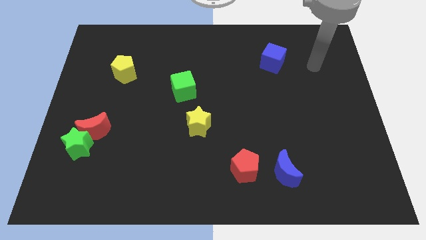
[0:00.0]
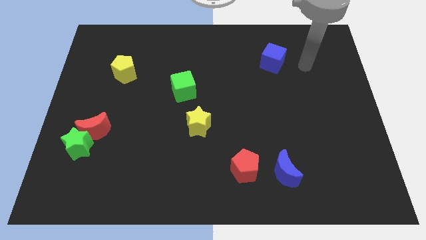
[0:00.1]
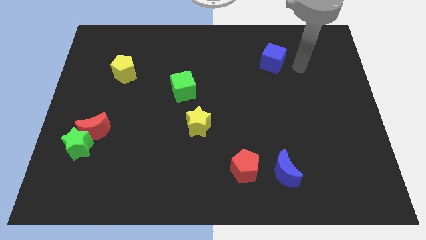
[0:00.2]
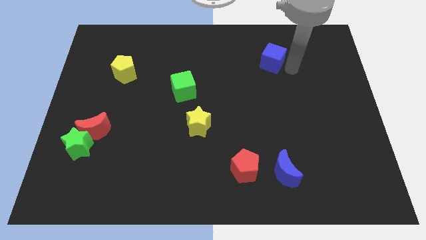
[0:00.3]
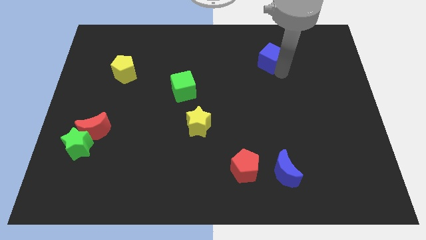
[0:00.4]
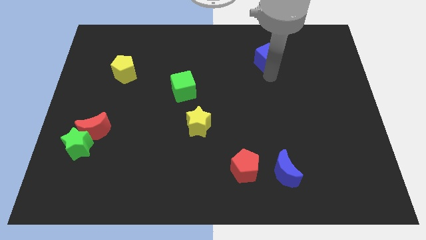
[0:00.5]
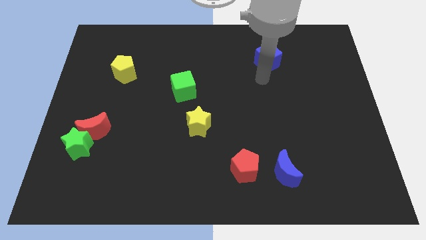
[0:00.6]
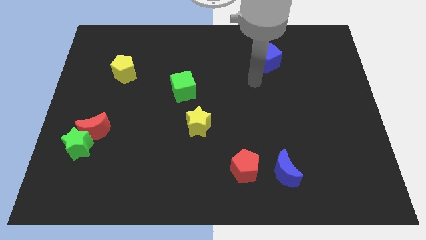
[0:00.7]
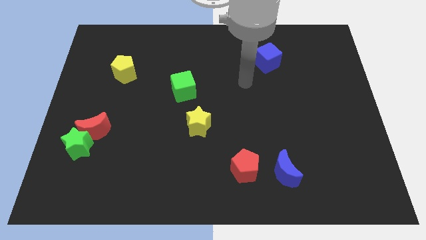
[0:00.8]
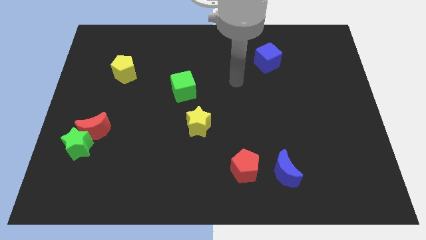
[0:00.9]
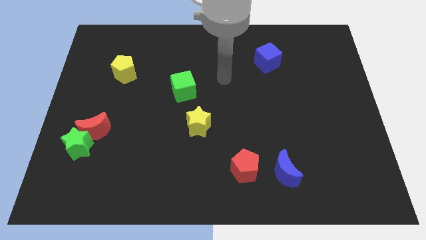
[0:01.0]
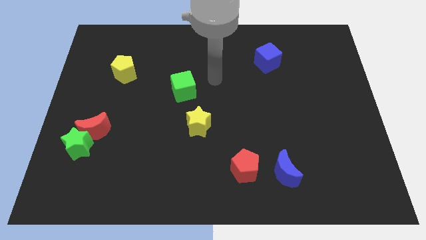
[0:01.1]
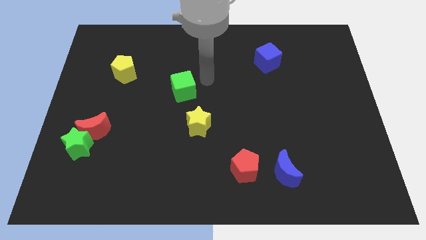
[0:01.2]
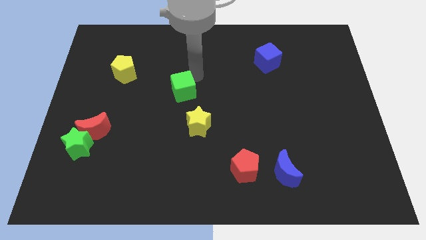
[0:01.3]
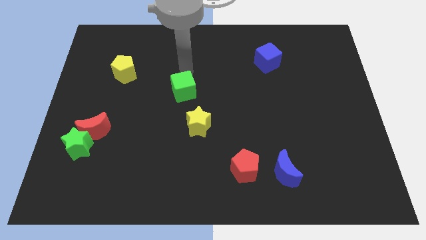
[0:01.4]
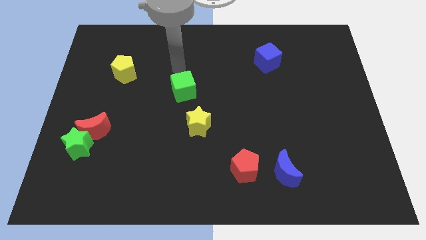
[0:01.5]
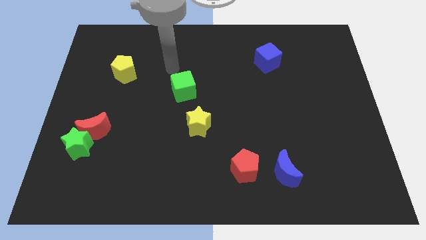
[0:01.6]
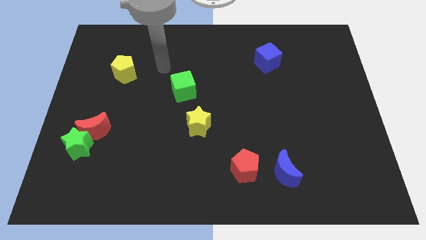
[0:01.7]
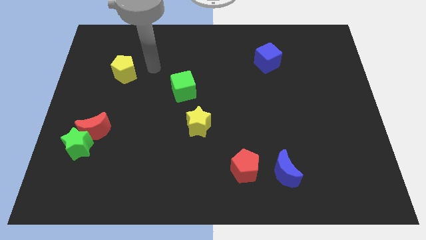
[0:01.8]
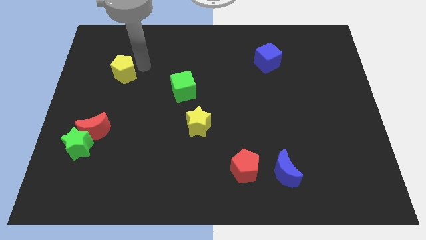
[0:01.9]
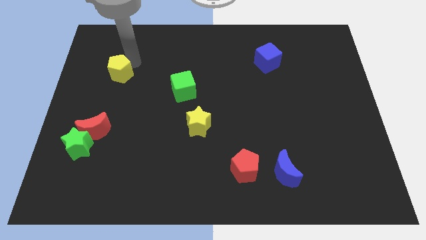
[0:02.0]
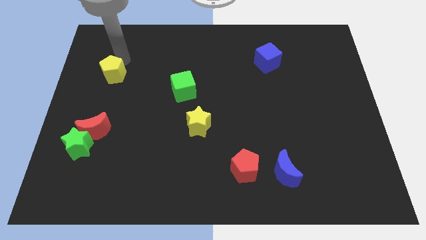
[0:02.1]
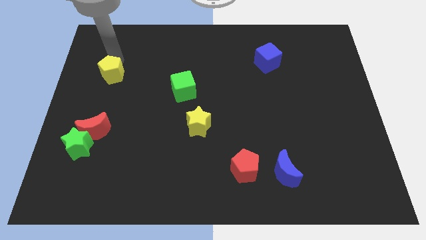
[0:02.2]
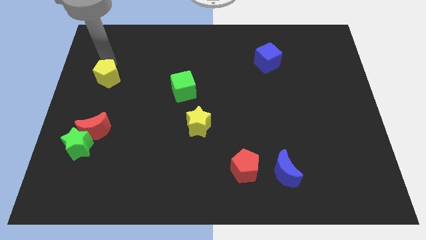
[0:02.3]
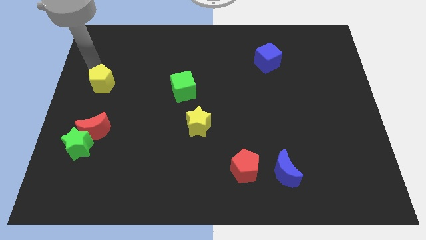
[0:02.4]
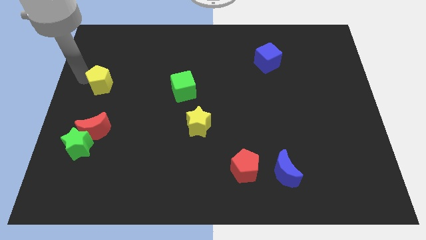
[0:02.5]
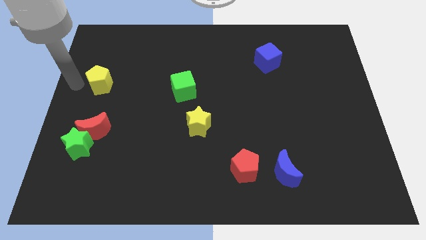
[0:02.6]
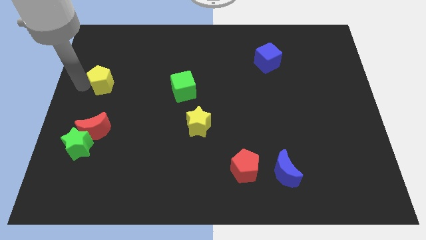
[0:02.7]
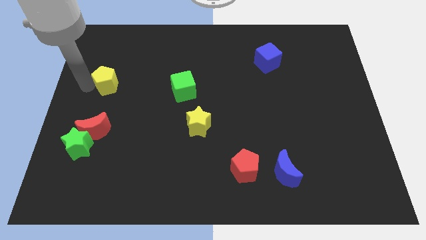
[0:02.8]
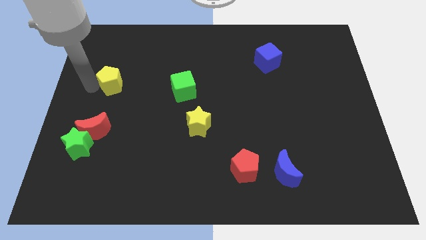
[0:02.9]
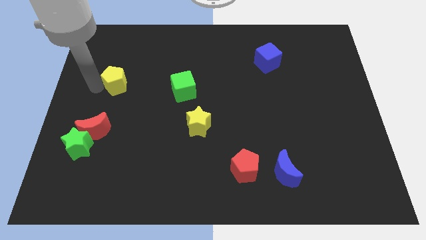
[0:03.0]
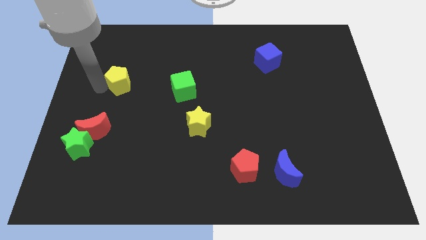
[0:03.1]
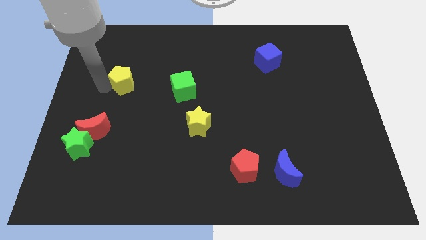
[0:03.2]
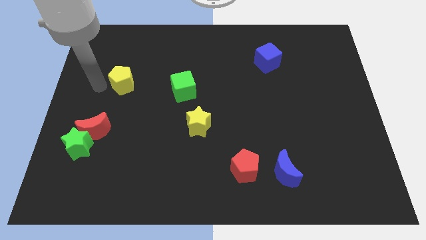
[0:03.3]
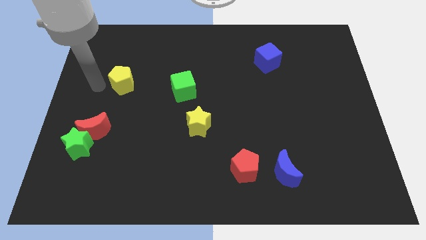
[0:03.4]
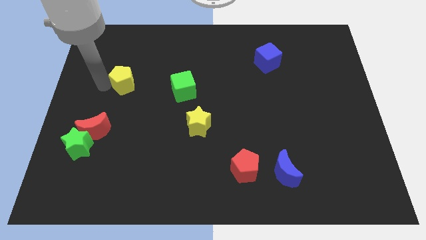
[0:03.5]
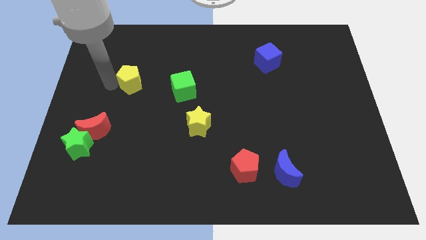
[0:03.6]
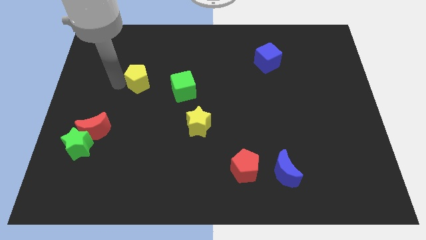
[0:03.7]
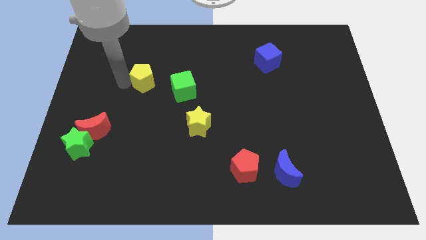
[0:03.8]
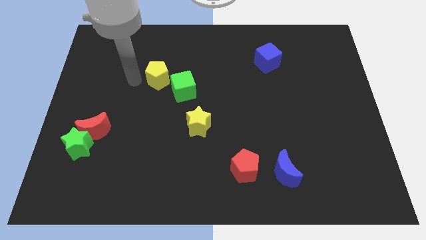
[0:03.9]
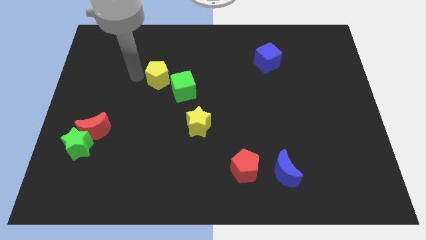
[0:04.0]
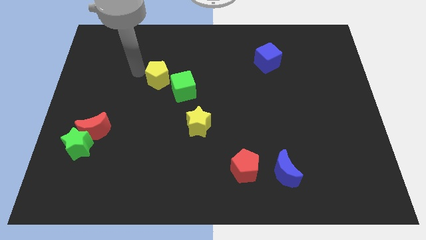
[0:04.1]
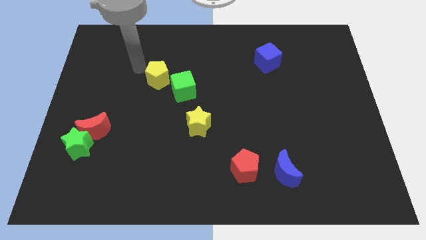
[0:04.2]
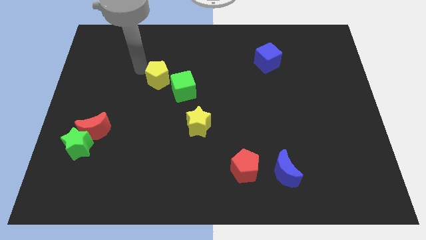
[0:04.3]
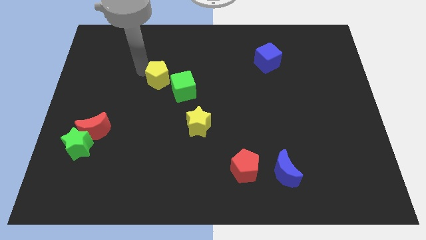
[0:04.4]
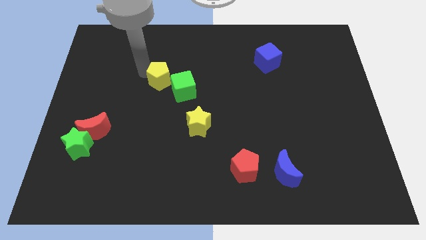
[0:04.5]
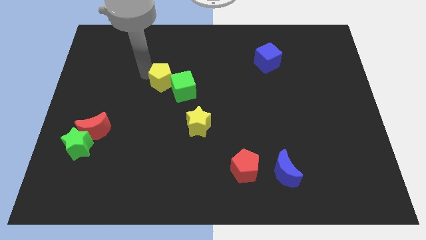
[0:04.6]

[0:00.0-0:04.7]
put the yellow pentagon to the green cube

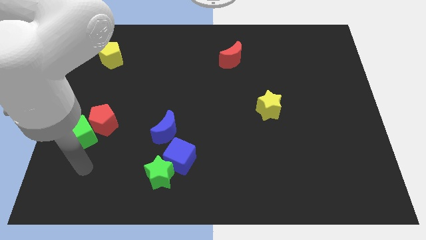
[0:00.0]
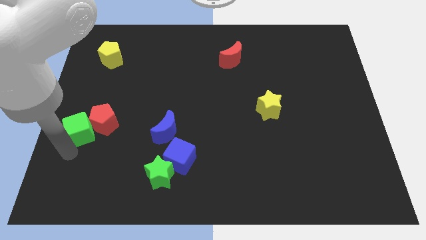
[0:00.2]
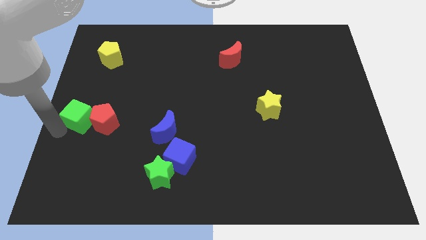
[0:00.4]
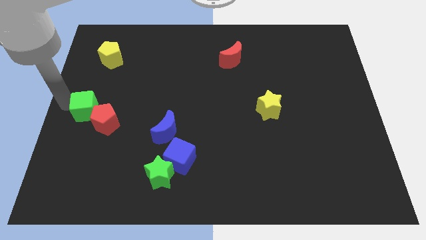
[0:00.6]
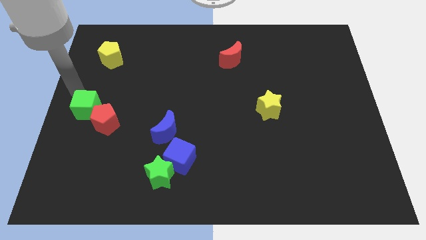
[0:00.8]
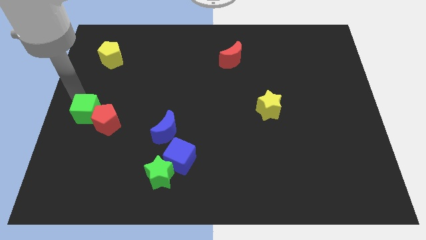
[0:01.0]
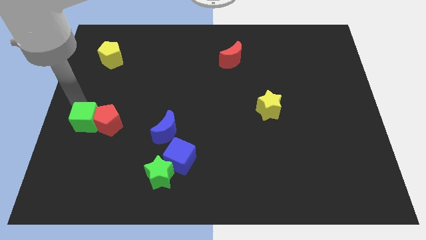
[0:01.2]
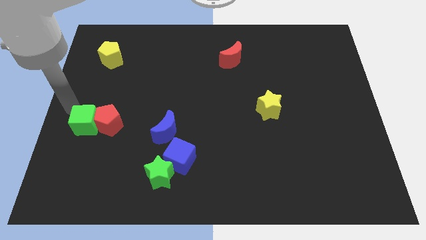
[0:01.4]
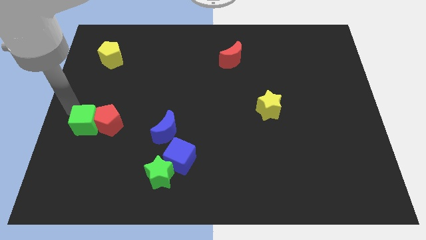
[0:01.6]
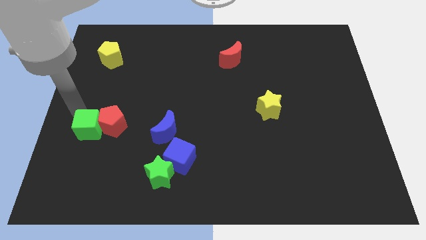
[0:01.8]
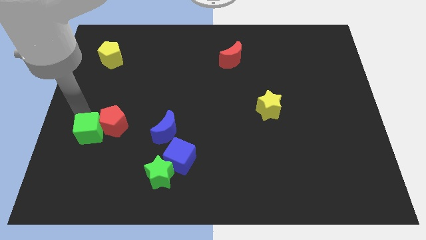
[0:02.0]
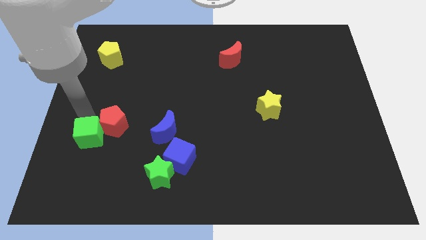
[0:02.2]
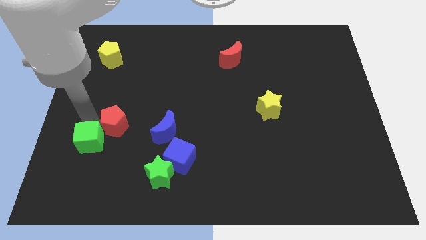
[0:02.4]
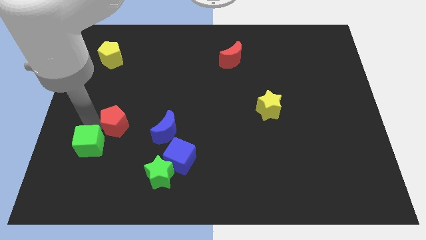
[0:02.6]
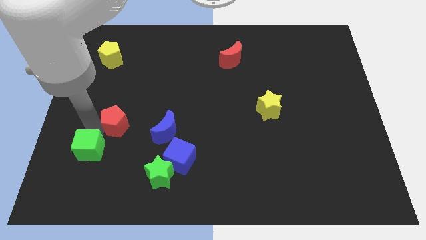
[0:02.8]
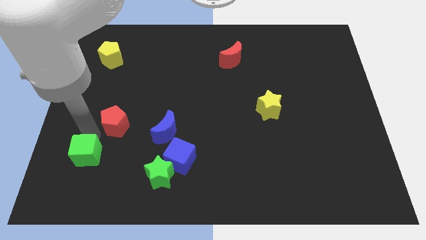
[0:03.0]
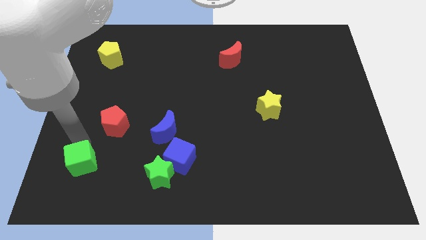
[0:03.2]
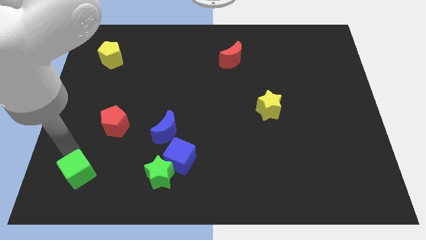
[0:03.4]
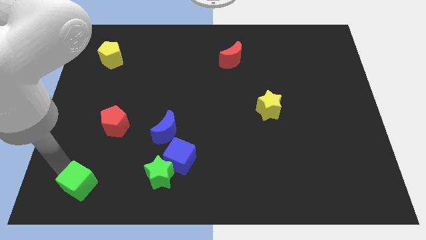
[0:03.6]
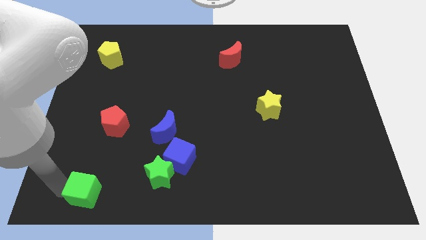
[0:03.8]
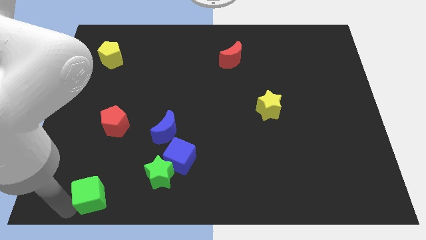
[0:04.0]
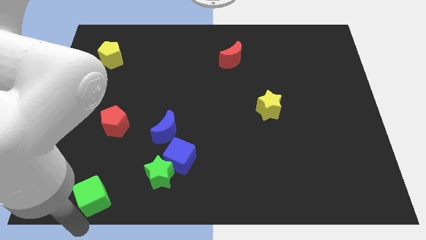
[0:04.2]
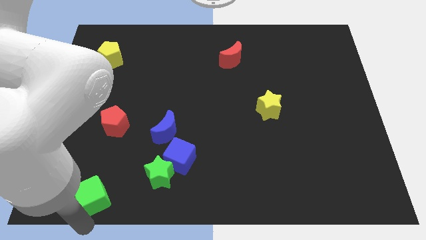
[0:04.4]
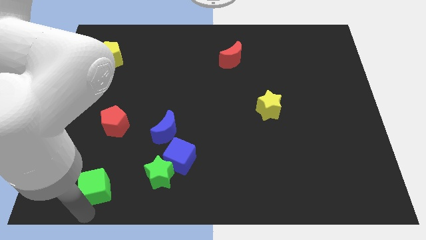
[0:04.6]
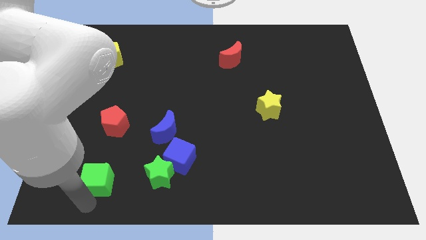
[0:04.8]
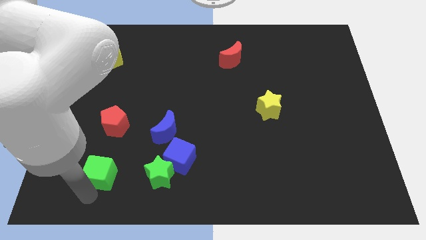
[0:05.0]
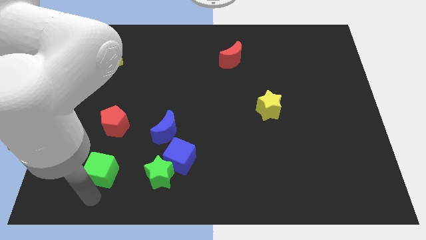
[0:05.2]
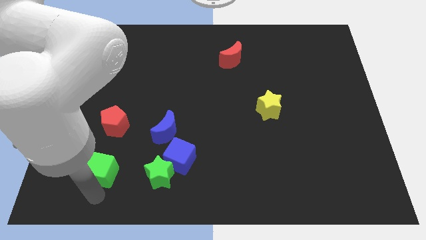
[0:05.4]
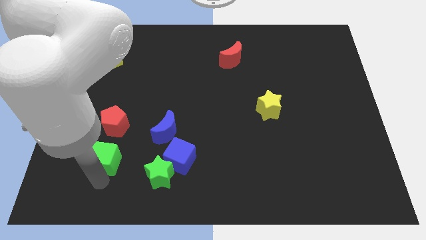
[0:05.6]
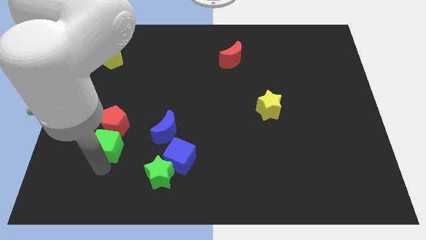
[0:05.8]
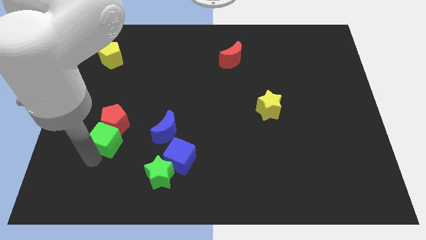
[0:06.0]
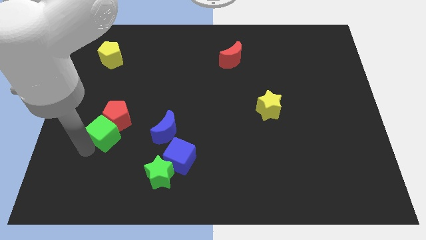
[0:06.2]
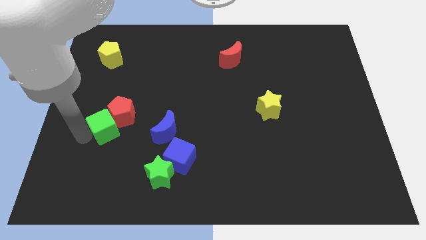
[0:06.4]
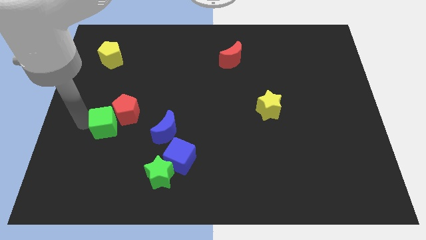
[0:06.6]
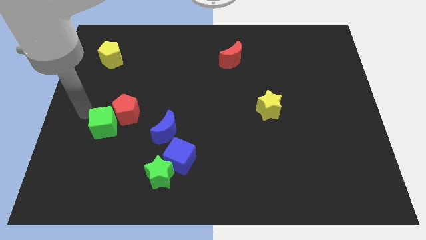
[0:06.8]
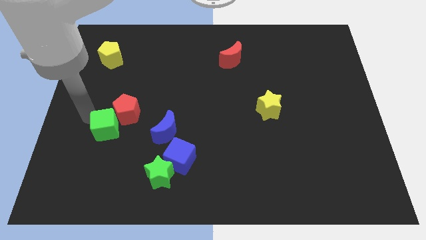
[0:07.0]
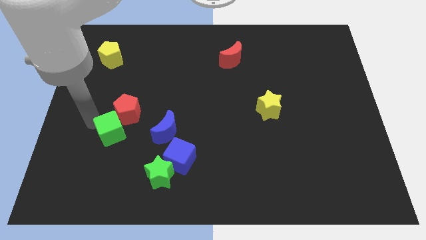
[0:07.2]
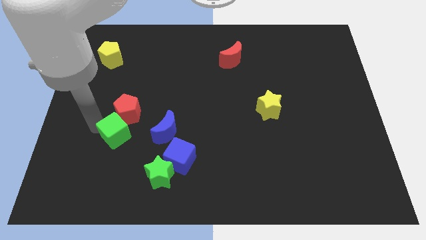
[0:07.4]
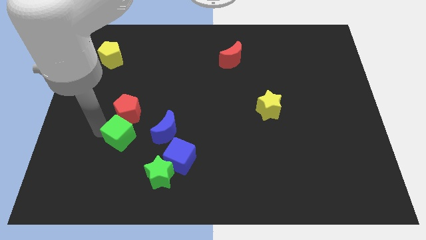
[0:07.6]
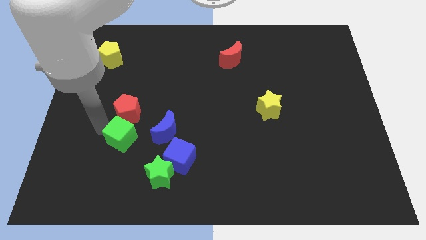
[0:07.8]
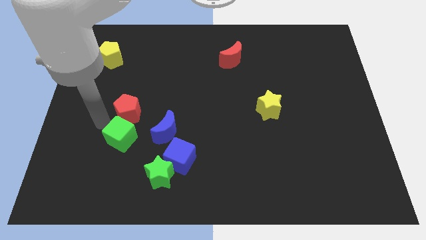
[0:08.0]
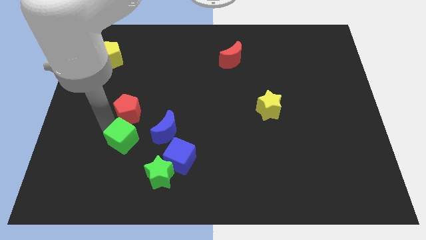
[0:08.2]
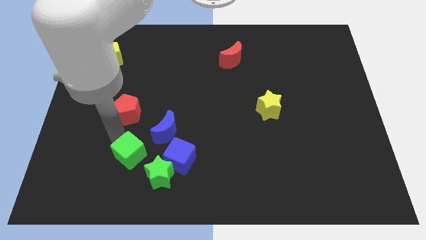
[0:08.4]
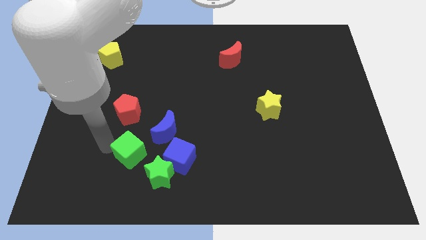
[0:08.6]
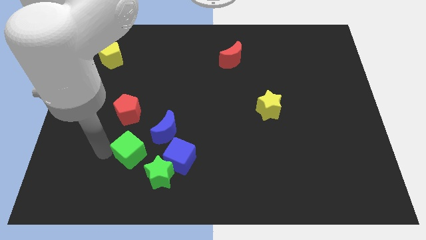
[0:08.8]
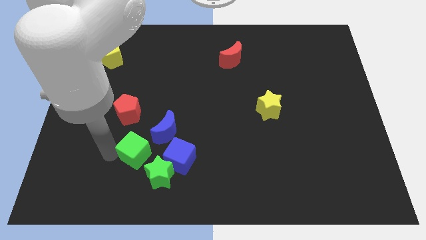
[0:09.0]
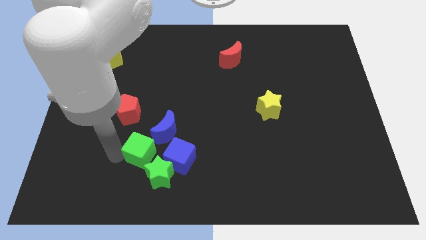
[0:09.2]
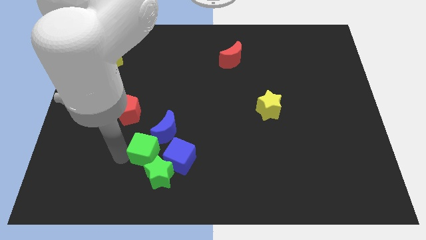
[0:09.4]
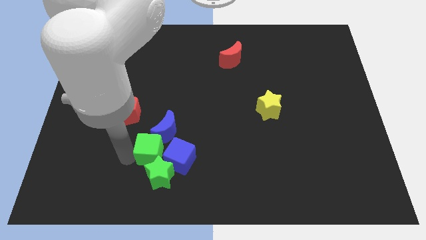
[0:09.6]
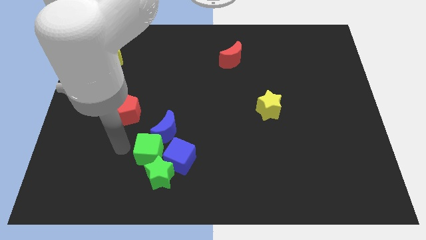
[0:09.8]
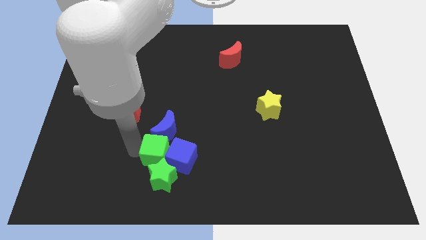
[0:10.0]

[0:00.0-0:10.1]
push the green cube to the blue cube
